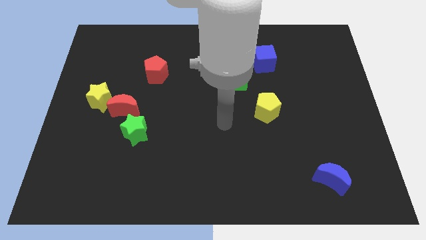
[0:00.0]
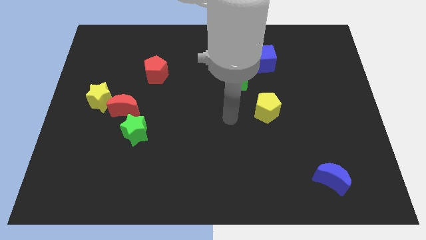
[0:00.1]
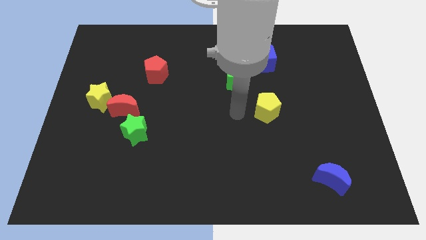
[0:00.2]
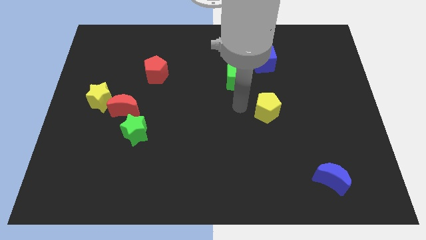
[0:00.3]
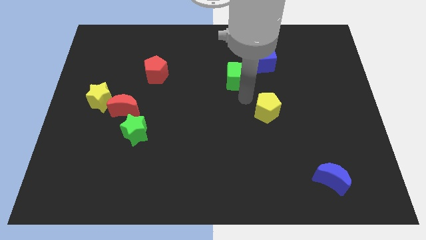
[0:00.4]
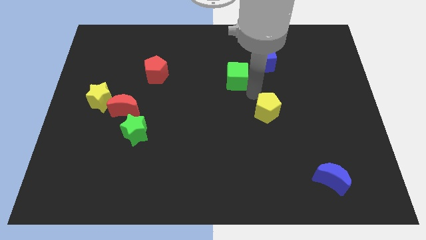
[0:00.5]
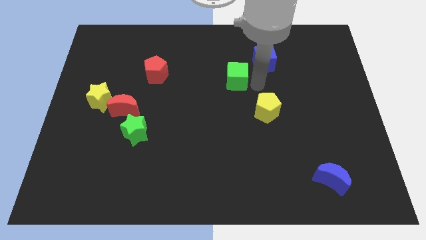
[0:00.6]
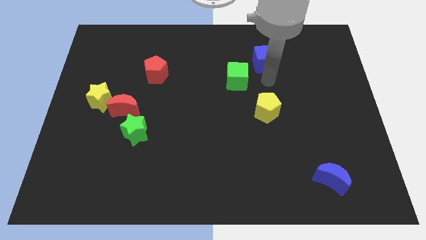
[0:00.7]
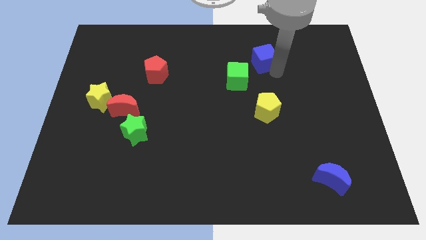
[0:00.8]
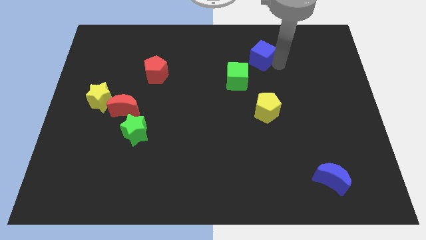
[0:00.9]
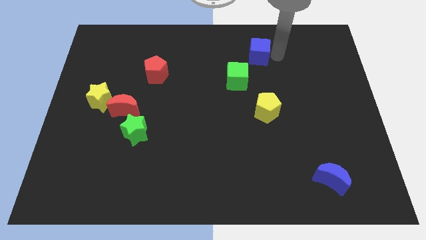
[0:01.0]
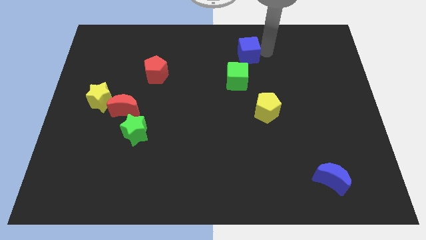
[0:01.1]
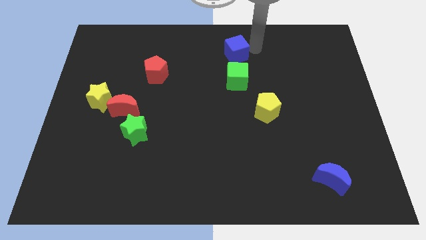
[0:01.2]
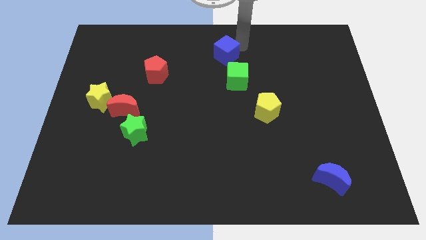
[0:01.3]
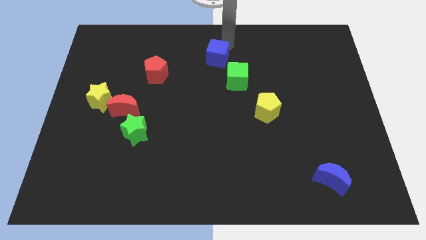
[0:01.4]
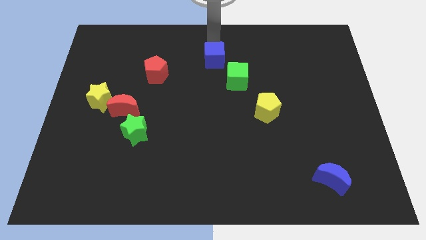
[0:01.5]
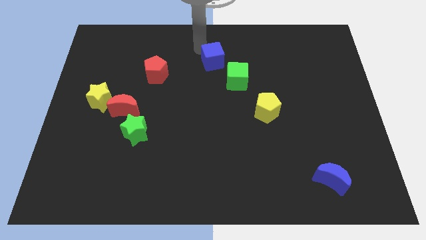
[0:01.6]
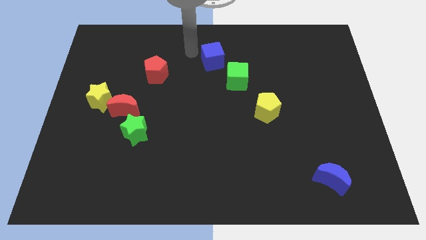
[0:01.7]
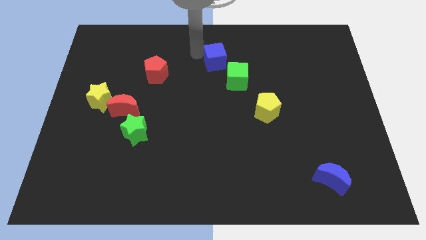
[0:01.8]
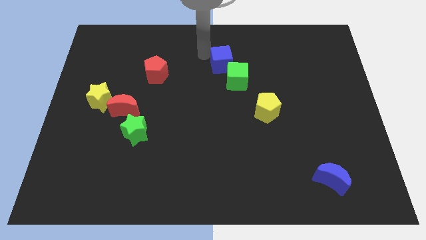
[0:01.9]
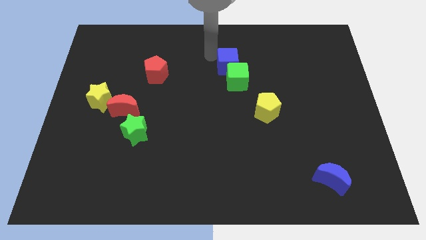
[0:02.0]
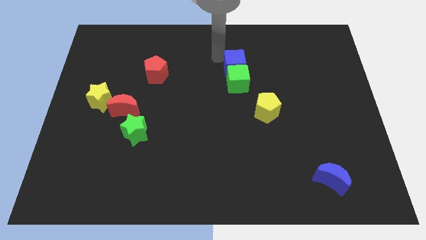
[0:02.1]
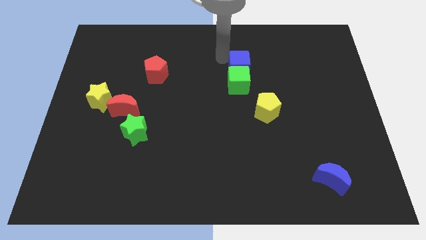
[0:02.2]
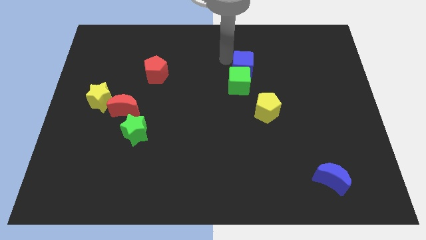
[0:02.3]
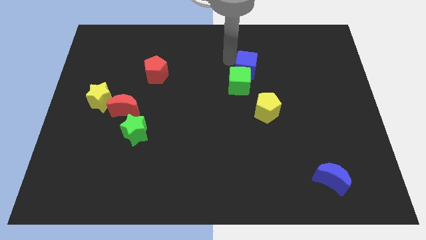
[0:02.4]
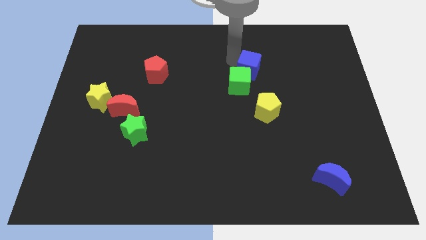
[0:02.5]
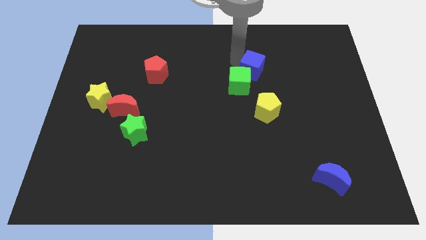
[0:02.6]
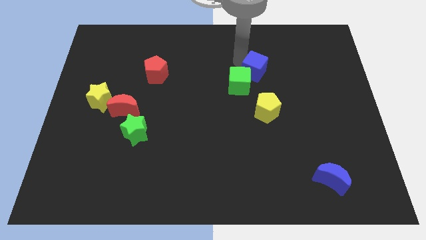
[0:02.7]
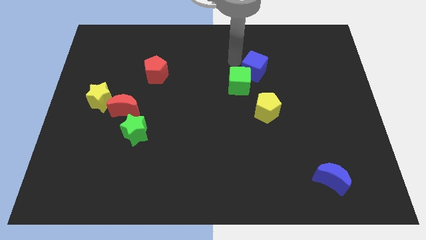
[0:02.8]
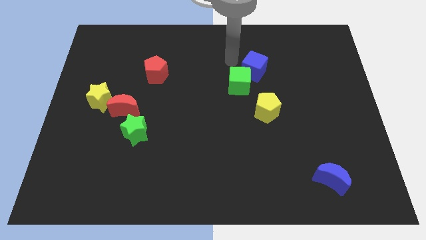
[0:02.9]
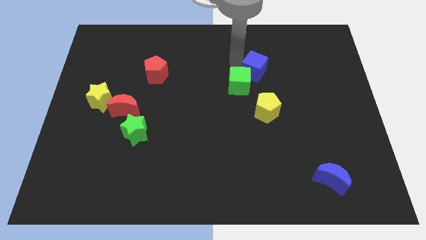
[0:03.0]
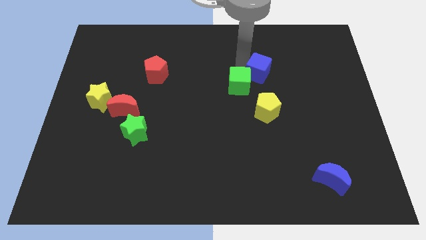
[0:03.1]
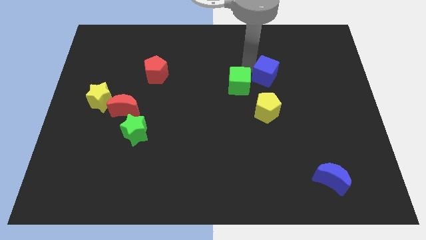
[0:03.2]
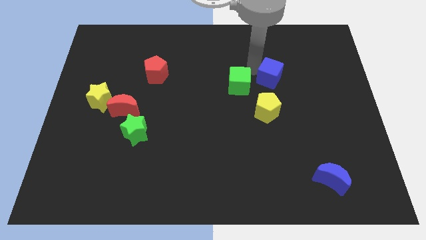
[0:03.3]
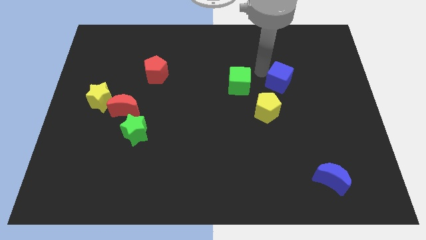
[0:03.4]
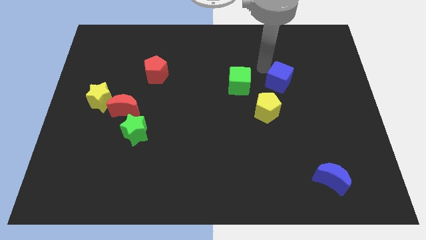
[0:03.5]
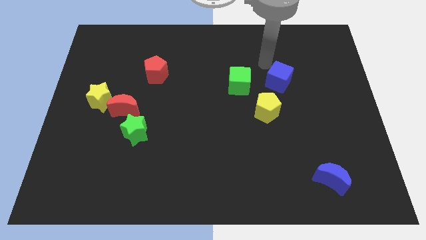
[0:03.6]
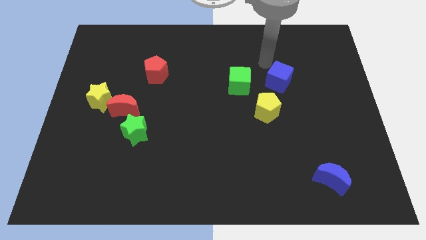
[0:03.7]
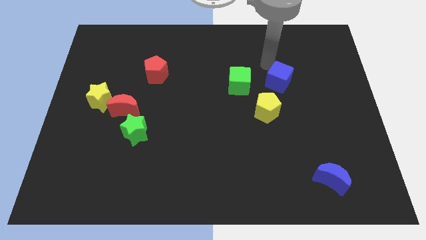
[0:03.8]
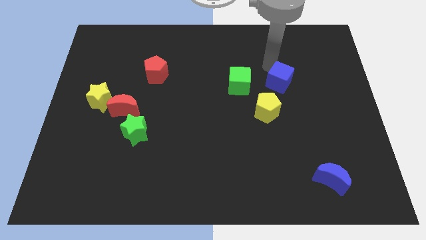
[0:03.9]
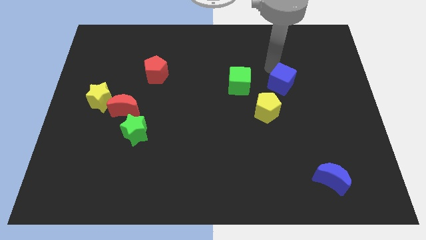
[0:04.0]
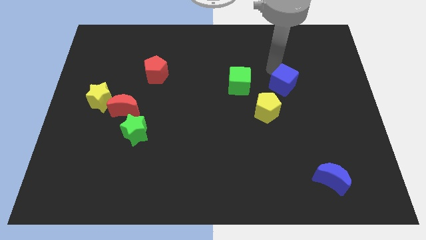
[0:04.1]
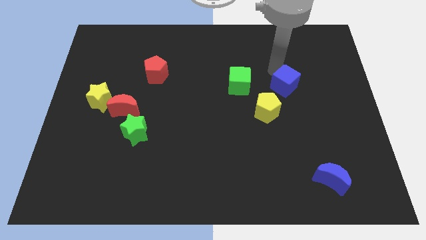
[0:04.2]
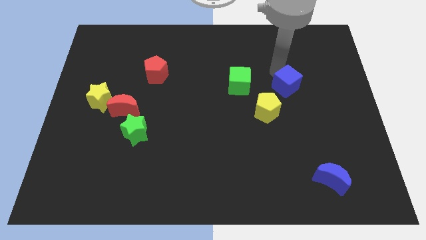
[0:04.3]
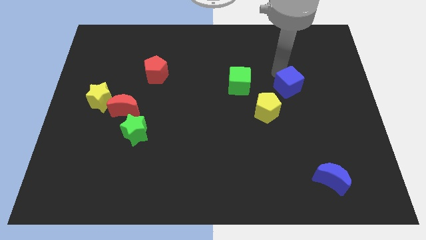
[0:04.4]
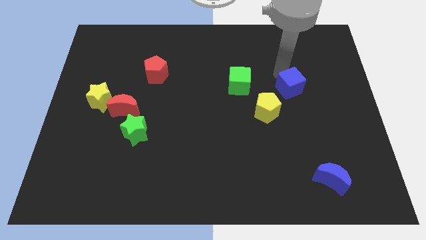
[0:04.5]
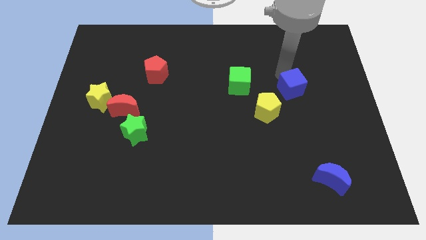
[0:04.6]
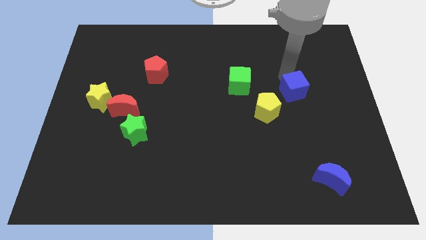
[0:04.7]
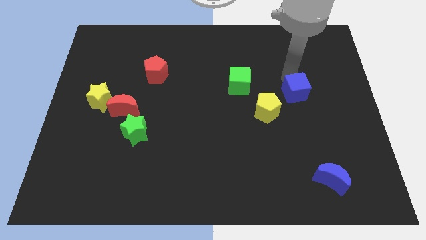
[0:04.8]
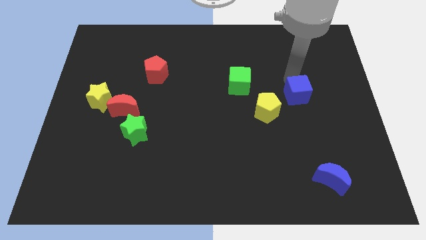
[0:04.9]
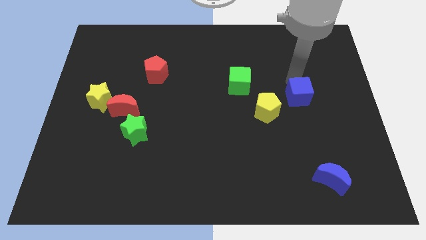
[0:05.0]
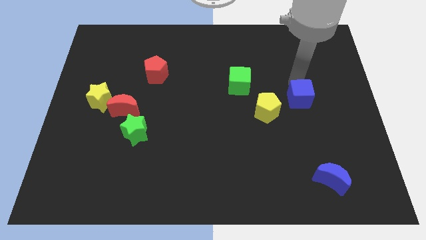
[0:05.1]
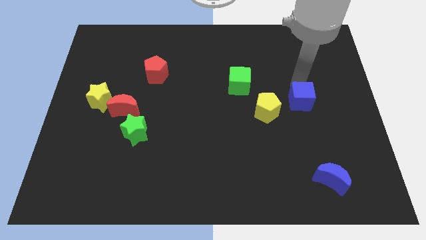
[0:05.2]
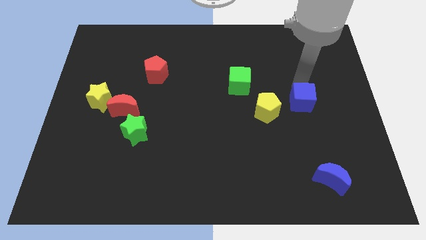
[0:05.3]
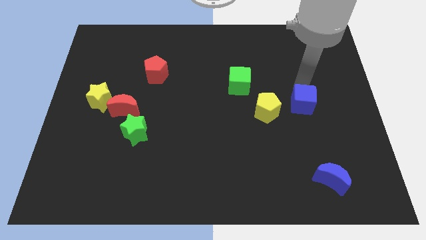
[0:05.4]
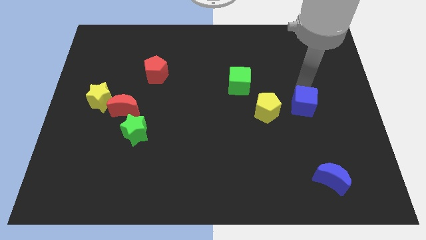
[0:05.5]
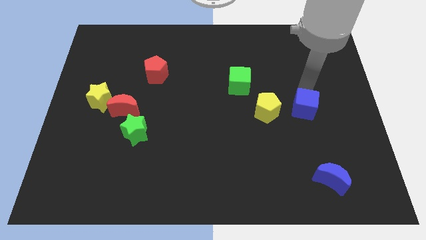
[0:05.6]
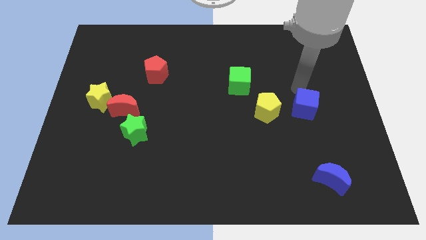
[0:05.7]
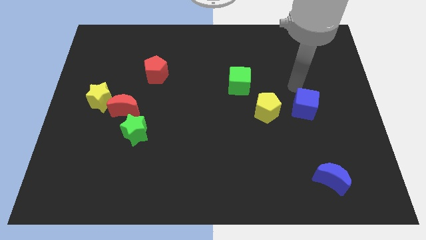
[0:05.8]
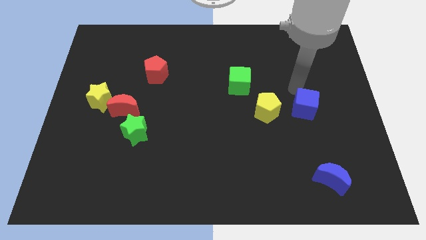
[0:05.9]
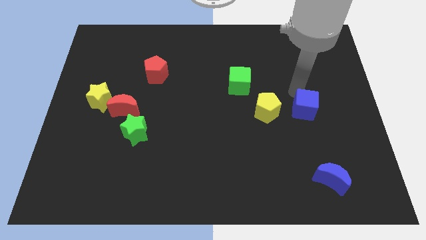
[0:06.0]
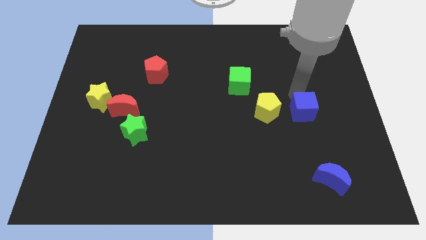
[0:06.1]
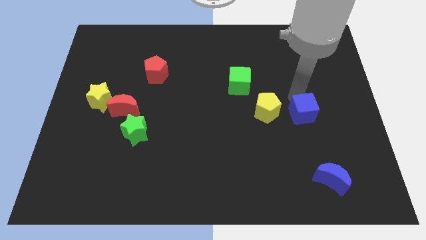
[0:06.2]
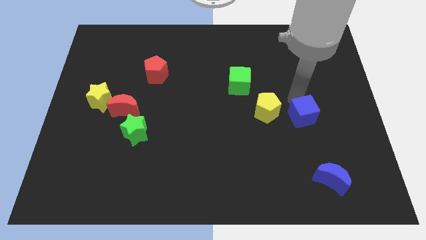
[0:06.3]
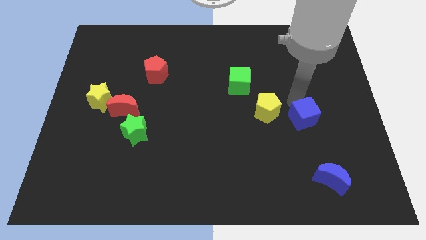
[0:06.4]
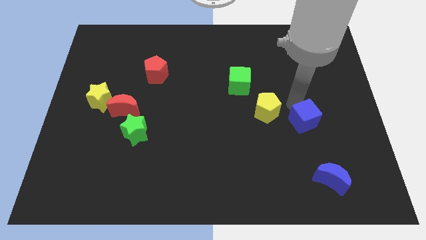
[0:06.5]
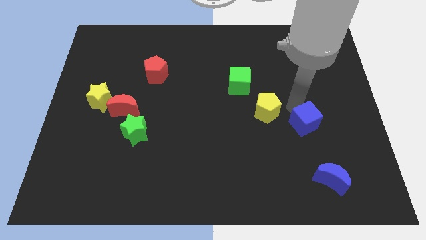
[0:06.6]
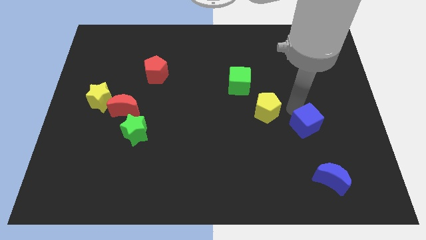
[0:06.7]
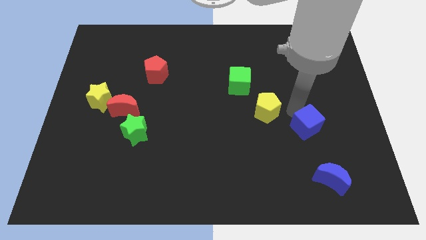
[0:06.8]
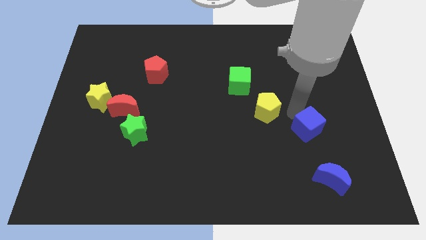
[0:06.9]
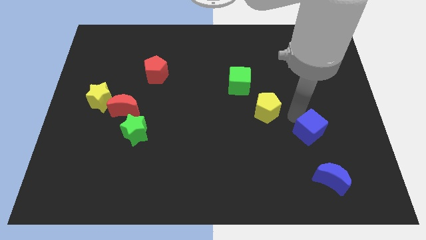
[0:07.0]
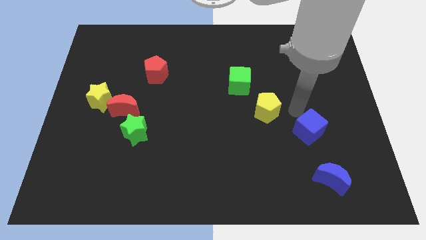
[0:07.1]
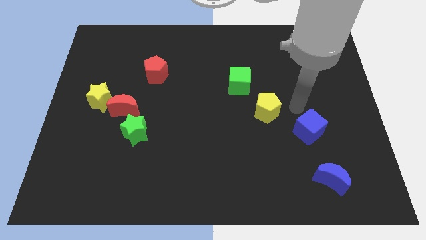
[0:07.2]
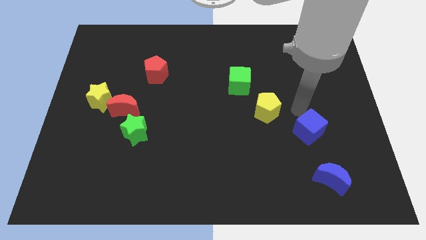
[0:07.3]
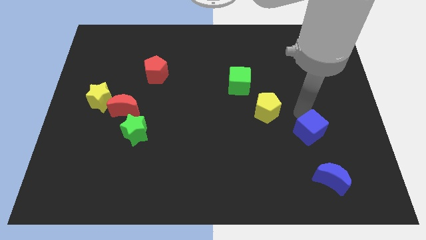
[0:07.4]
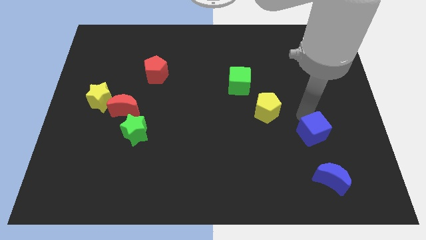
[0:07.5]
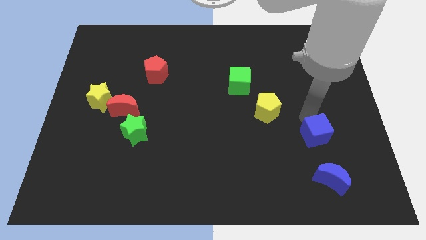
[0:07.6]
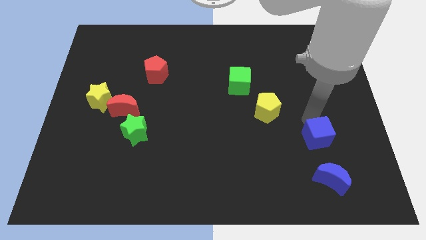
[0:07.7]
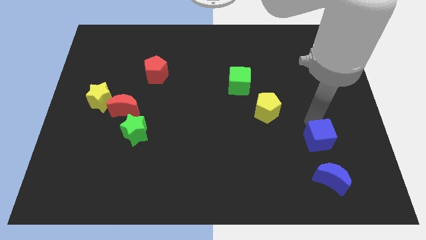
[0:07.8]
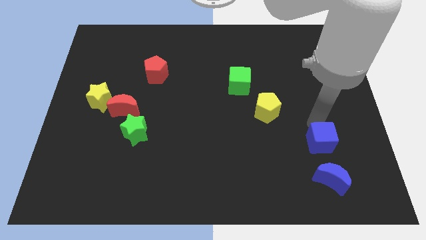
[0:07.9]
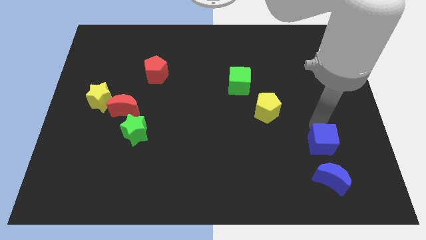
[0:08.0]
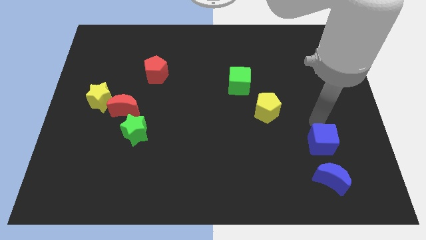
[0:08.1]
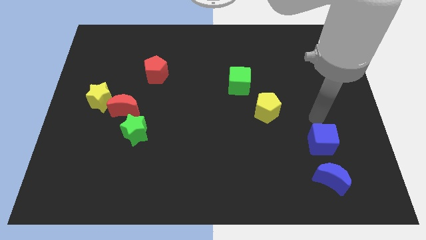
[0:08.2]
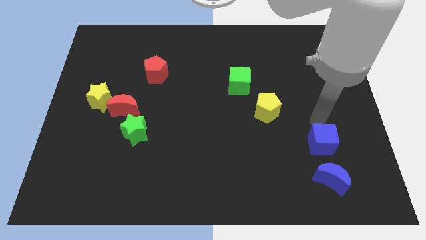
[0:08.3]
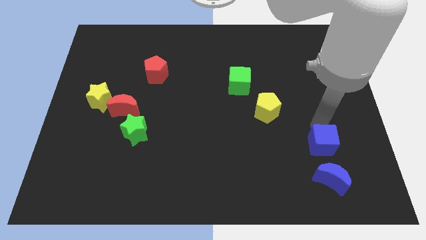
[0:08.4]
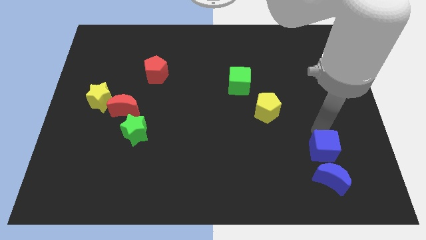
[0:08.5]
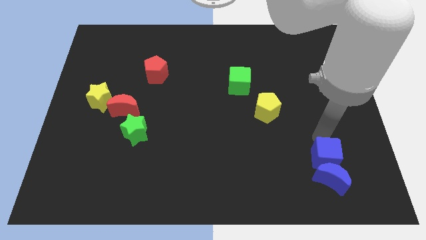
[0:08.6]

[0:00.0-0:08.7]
put the blue cube to the blue moon
